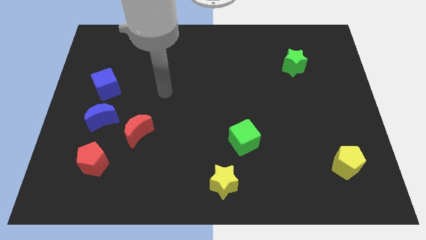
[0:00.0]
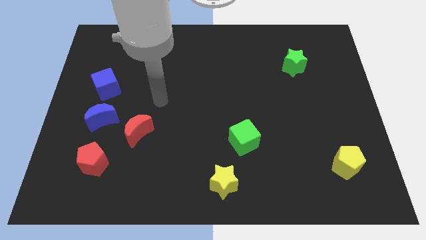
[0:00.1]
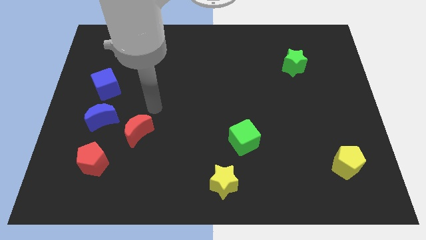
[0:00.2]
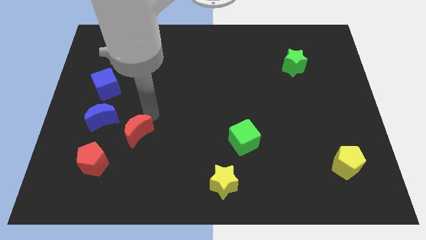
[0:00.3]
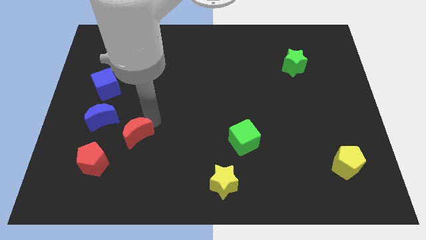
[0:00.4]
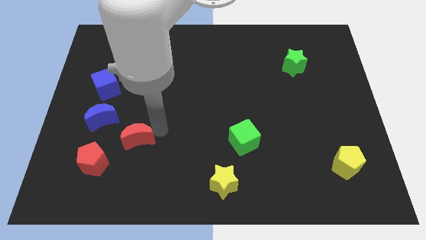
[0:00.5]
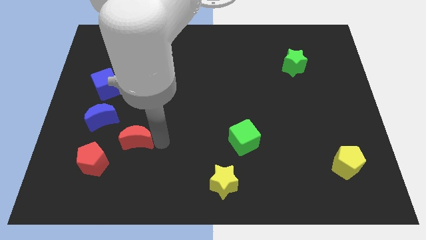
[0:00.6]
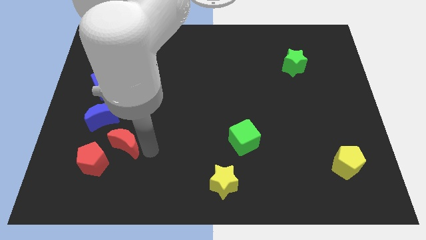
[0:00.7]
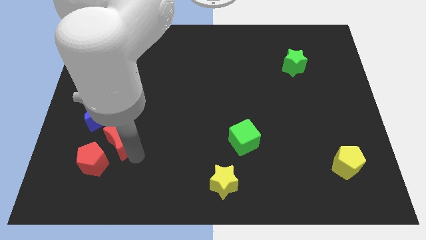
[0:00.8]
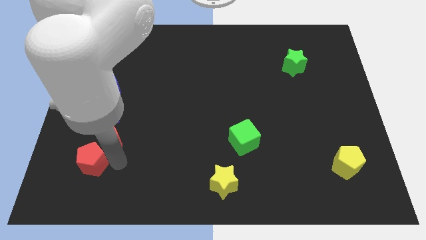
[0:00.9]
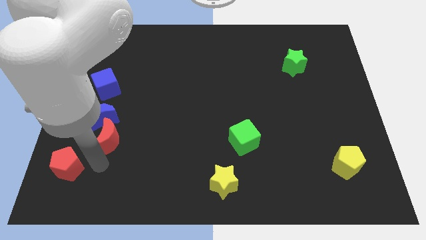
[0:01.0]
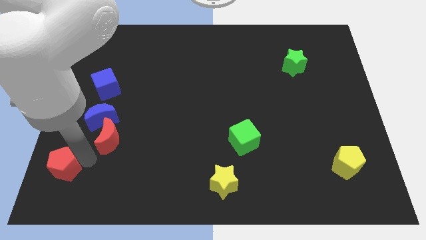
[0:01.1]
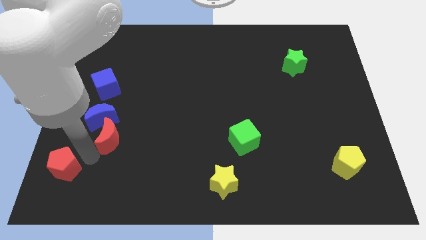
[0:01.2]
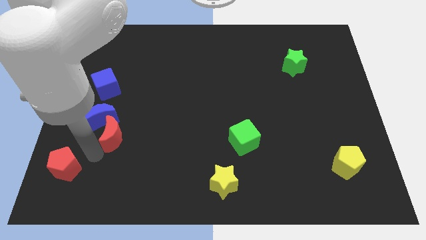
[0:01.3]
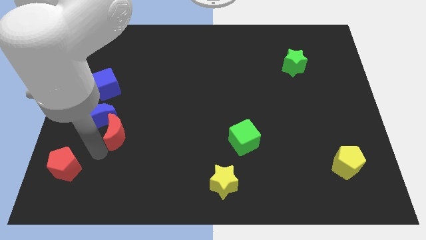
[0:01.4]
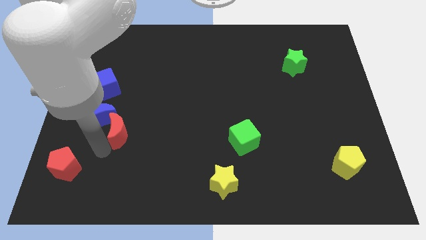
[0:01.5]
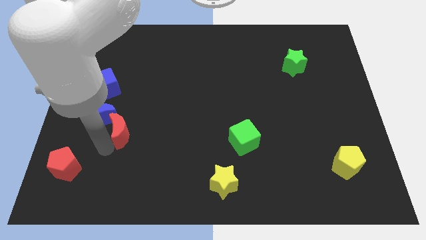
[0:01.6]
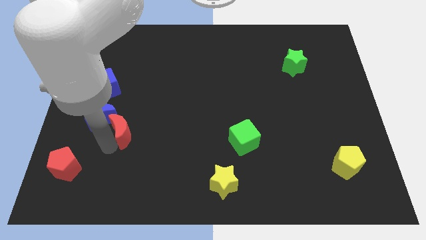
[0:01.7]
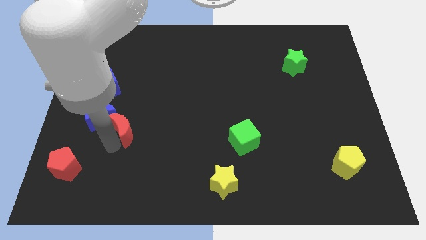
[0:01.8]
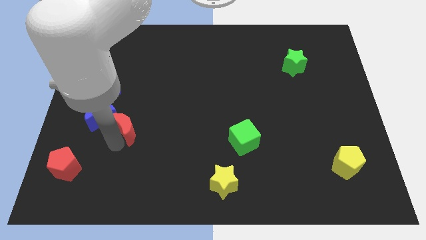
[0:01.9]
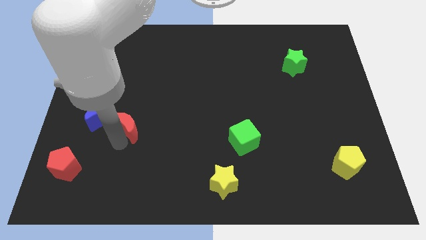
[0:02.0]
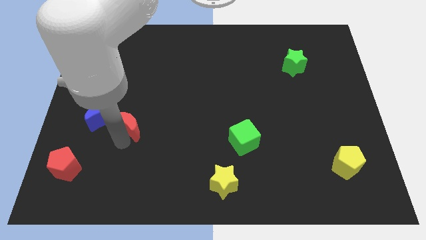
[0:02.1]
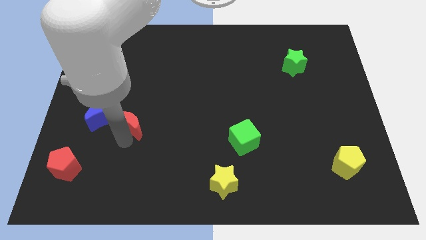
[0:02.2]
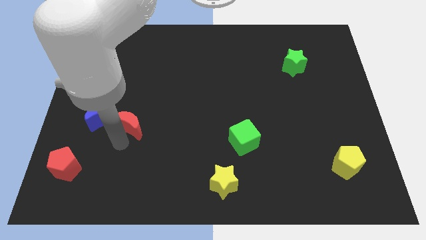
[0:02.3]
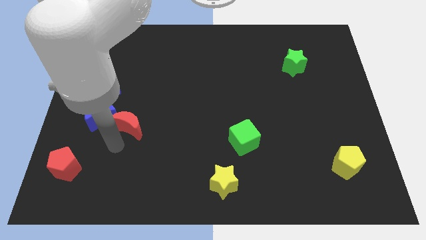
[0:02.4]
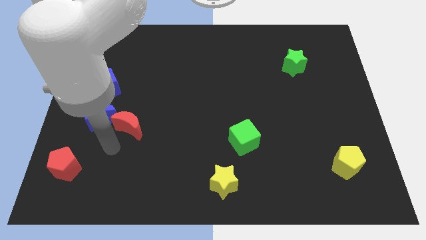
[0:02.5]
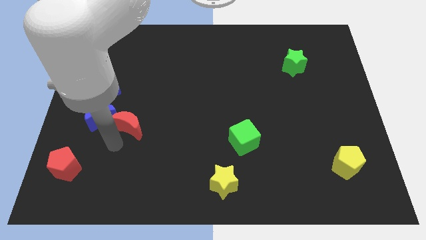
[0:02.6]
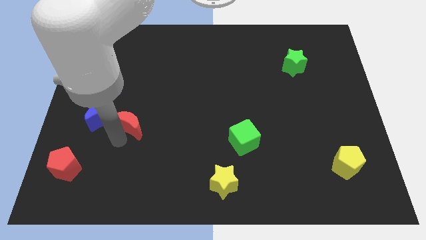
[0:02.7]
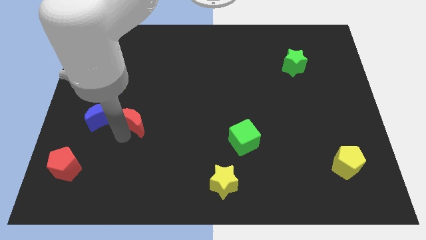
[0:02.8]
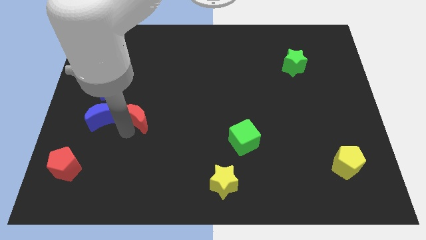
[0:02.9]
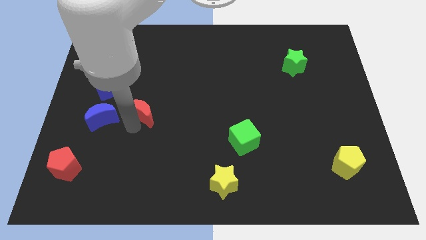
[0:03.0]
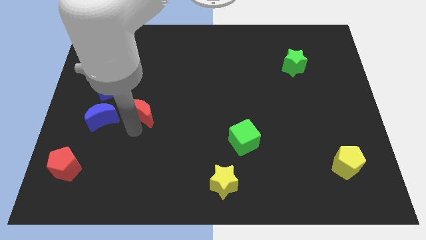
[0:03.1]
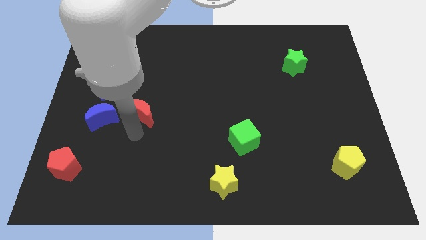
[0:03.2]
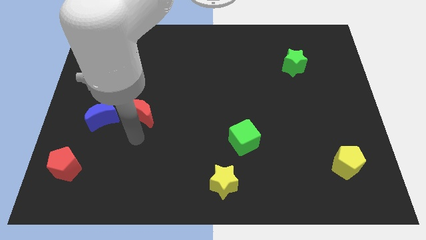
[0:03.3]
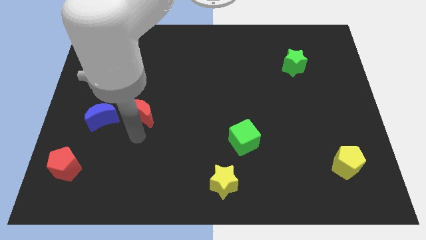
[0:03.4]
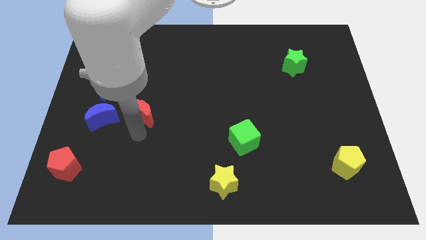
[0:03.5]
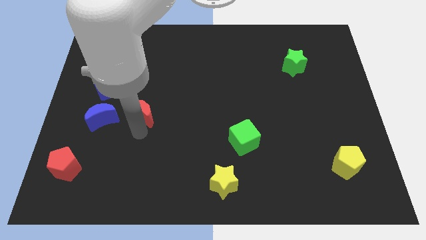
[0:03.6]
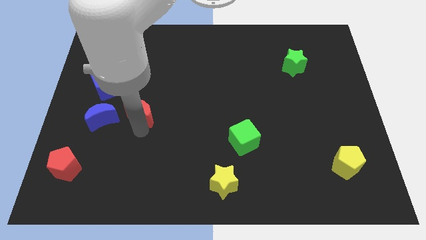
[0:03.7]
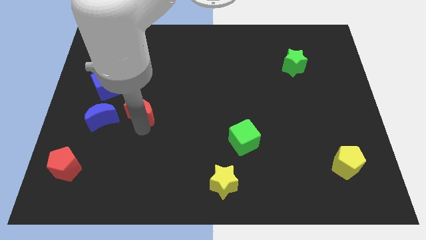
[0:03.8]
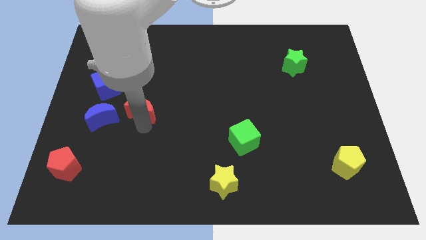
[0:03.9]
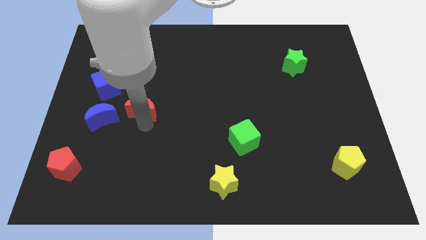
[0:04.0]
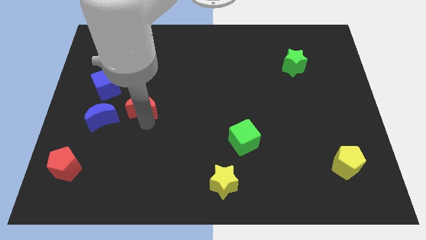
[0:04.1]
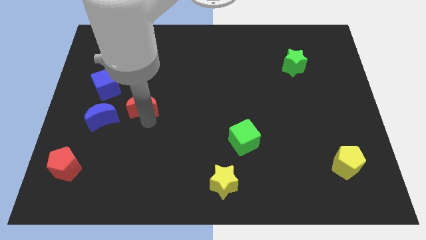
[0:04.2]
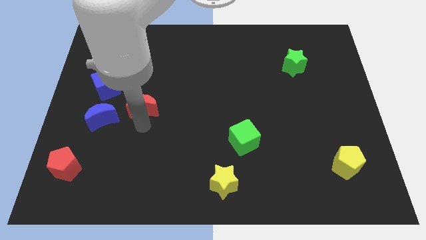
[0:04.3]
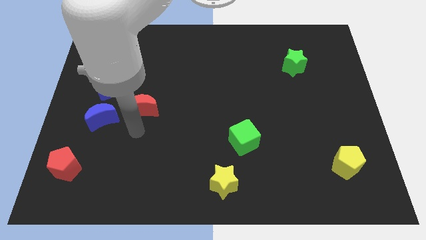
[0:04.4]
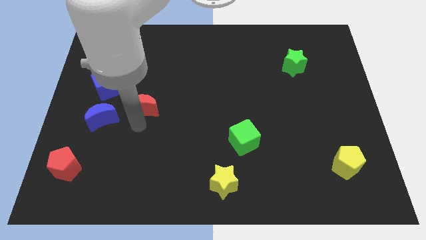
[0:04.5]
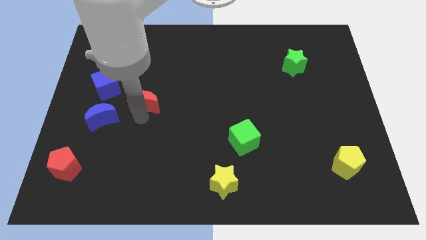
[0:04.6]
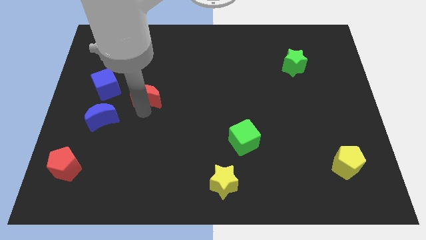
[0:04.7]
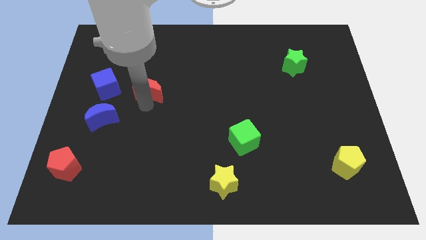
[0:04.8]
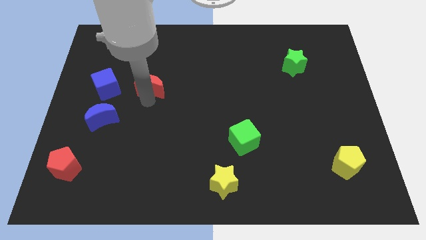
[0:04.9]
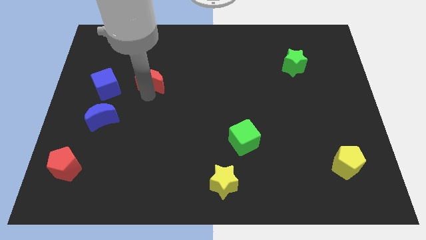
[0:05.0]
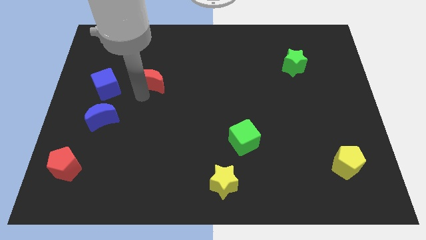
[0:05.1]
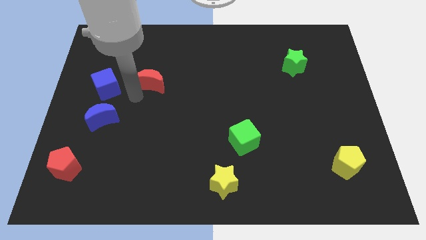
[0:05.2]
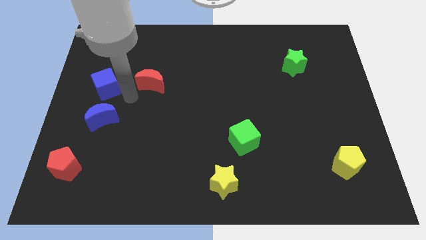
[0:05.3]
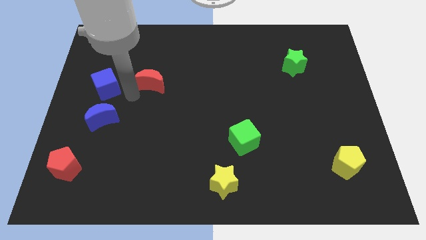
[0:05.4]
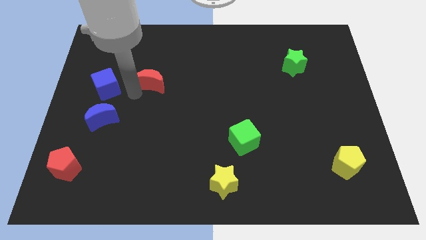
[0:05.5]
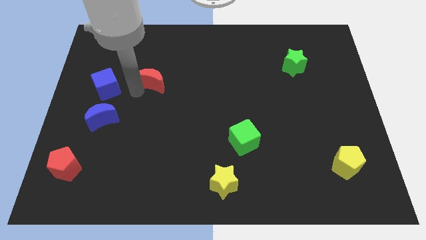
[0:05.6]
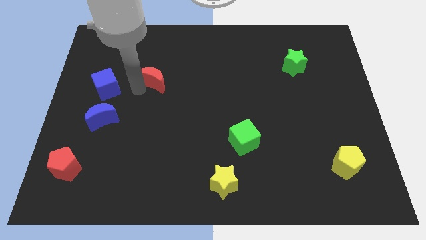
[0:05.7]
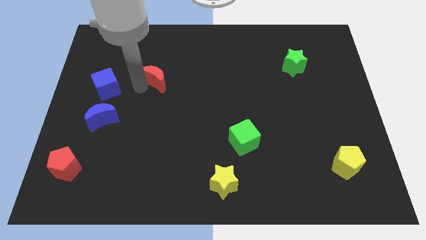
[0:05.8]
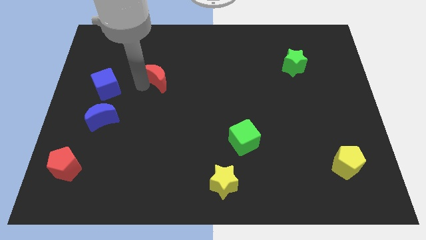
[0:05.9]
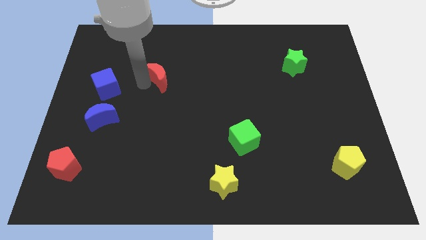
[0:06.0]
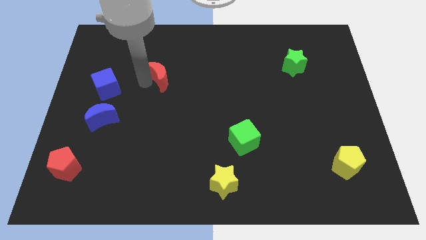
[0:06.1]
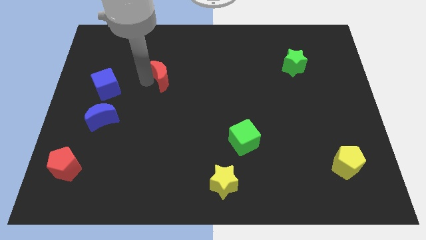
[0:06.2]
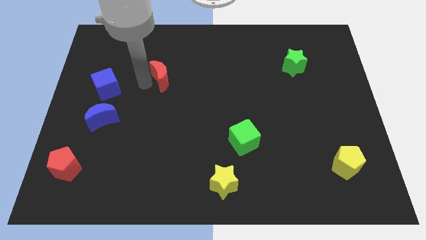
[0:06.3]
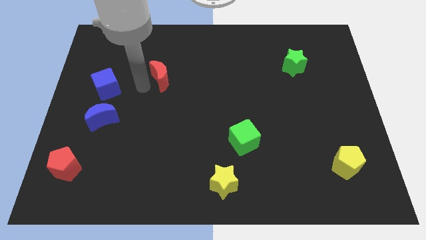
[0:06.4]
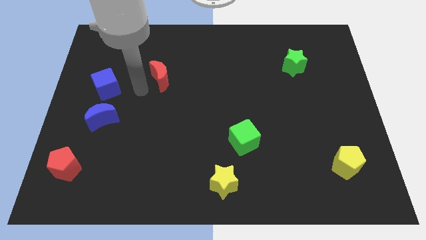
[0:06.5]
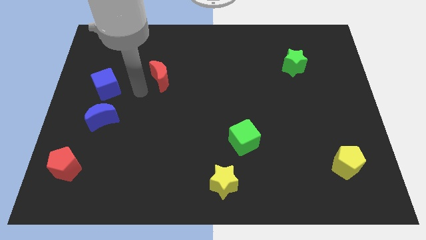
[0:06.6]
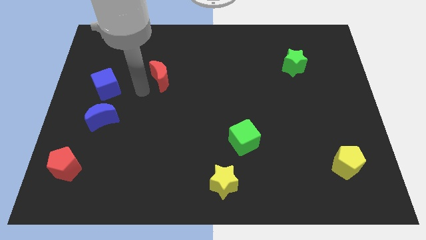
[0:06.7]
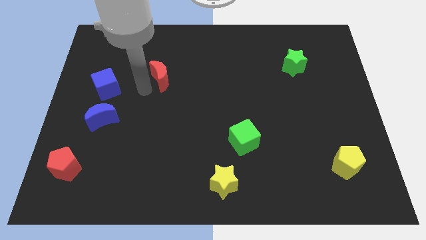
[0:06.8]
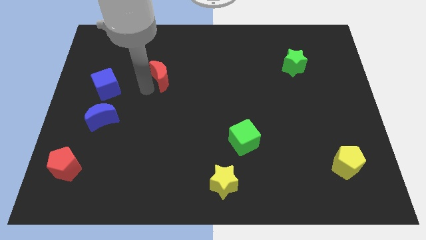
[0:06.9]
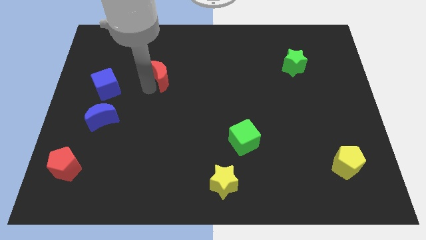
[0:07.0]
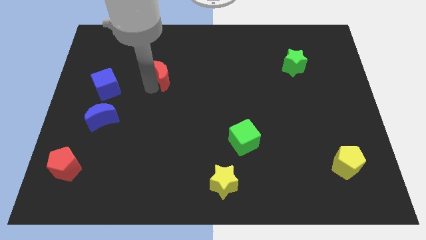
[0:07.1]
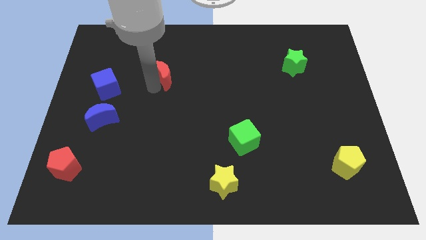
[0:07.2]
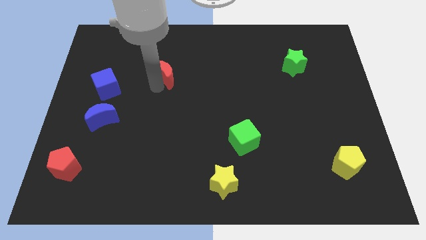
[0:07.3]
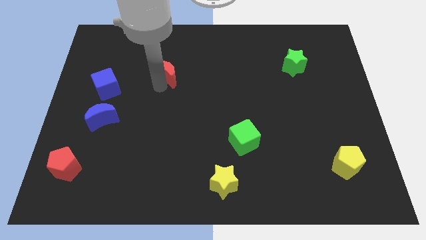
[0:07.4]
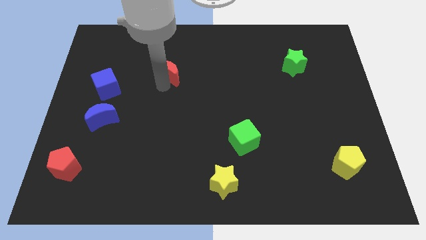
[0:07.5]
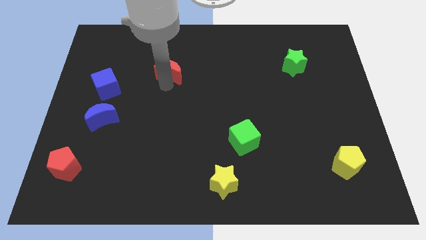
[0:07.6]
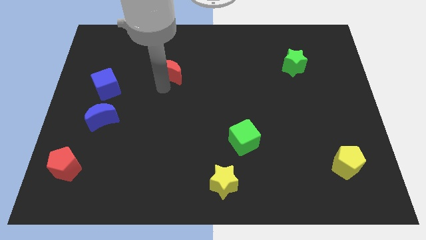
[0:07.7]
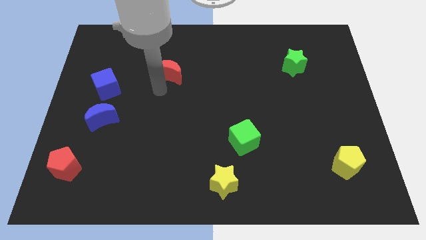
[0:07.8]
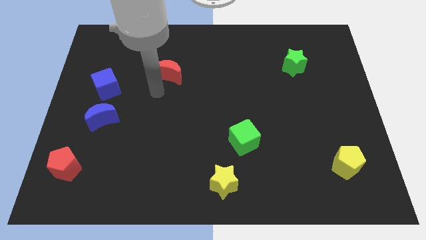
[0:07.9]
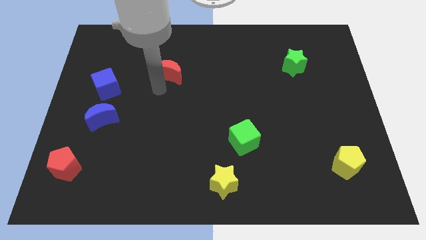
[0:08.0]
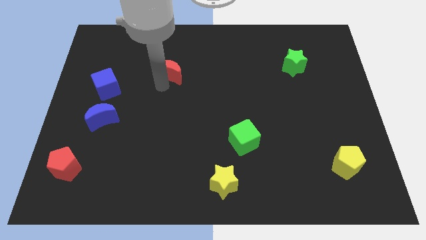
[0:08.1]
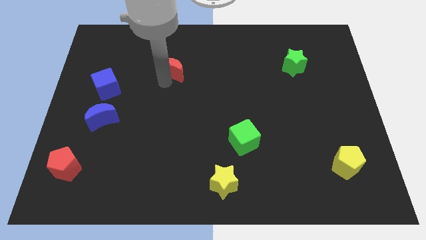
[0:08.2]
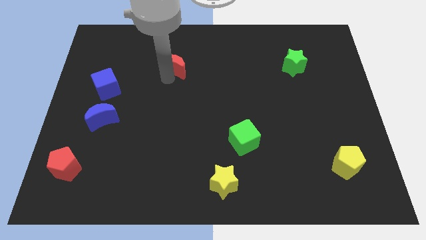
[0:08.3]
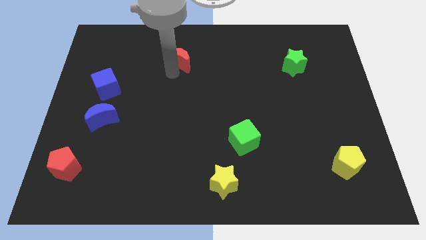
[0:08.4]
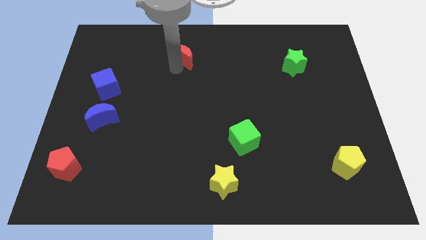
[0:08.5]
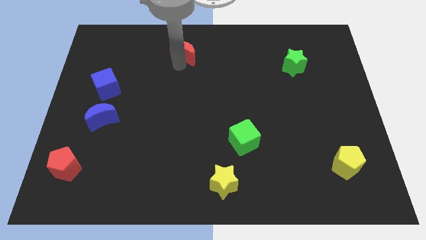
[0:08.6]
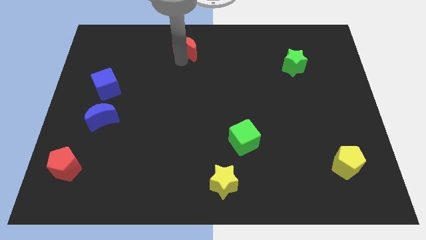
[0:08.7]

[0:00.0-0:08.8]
put the red moon to the top side
